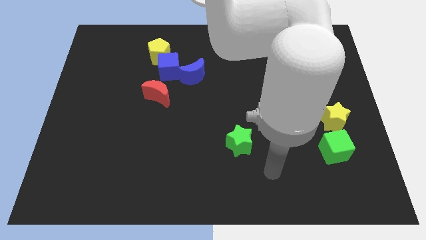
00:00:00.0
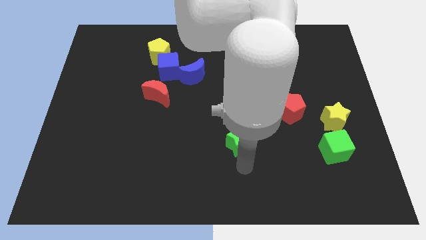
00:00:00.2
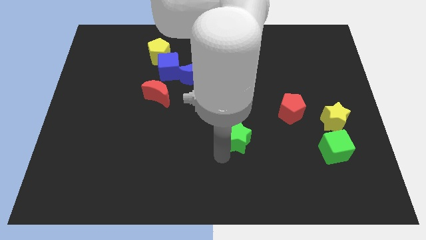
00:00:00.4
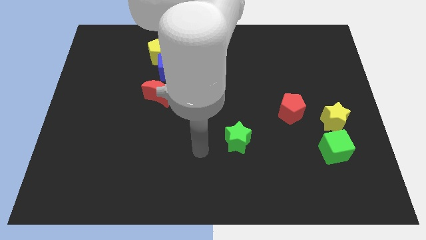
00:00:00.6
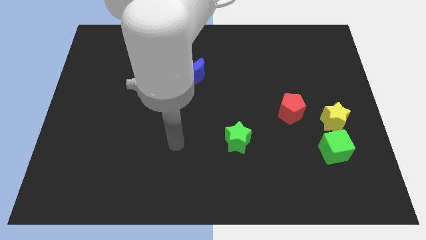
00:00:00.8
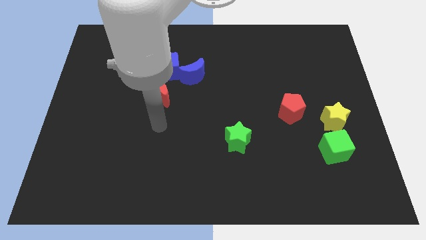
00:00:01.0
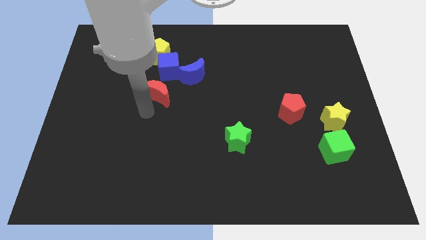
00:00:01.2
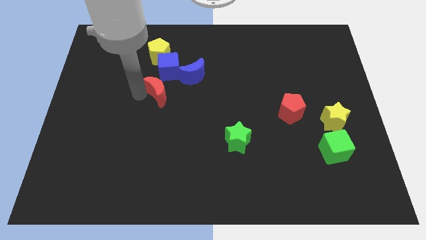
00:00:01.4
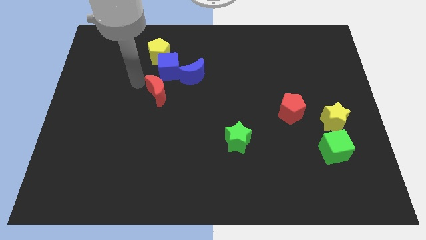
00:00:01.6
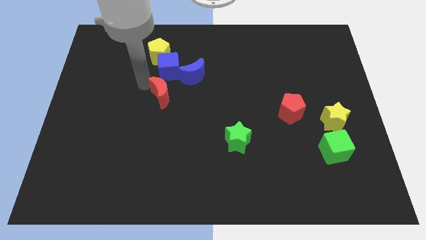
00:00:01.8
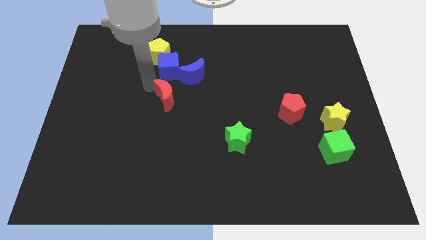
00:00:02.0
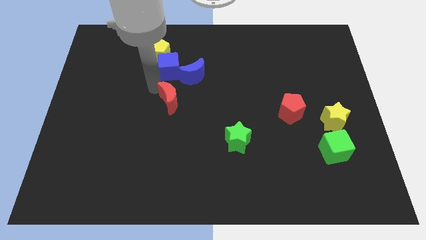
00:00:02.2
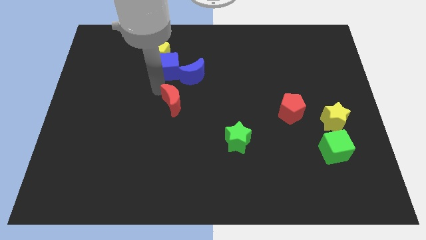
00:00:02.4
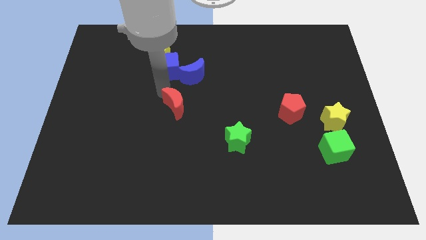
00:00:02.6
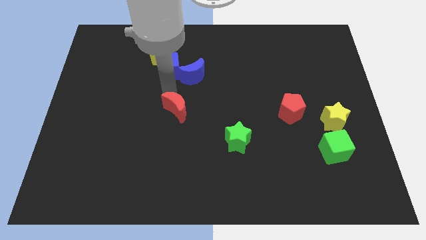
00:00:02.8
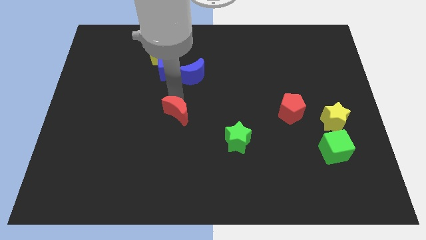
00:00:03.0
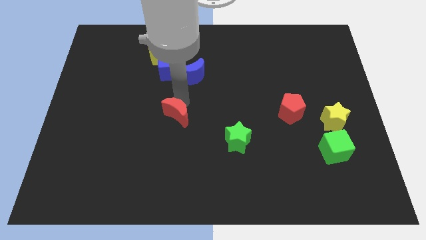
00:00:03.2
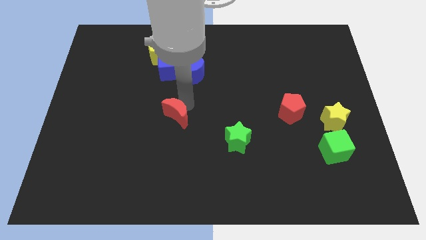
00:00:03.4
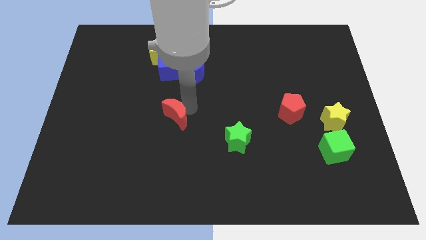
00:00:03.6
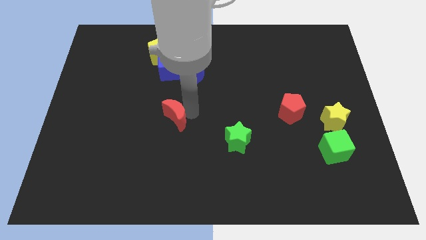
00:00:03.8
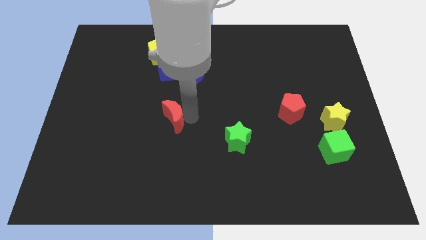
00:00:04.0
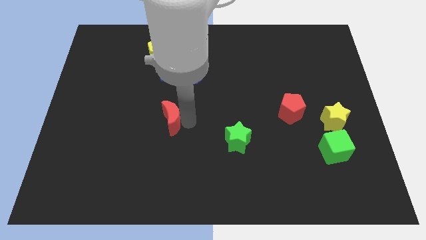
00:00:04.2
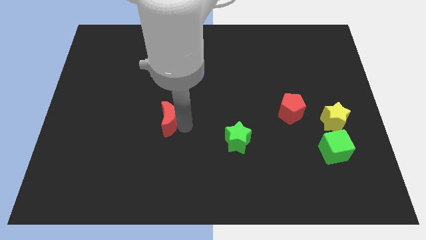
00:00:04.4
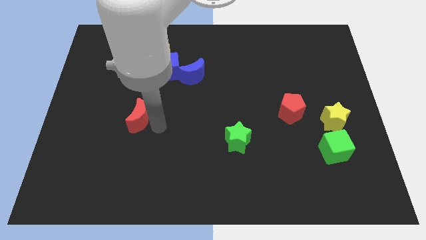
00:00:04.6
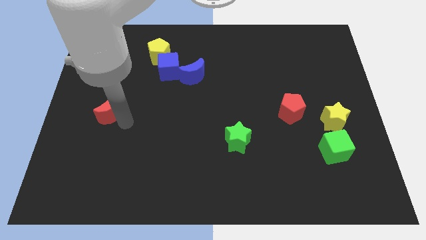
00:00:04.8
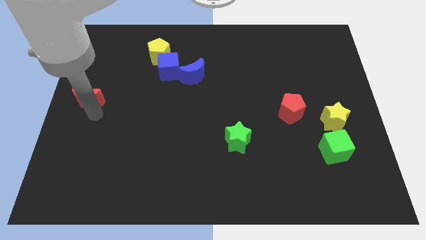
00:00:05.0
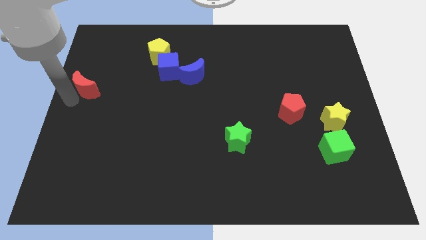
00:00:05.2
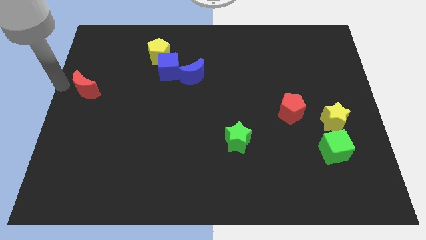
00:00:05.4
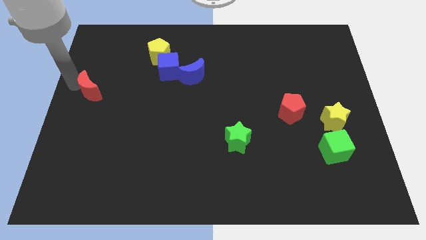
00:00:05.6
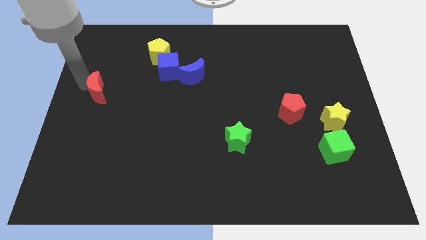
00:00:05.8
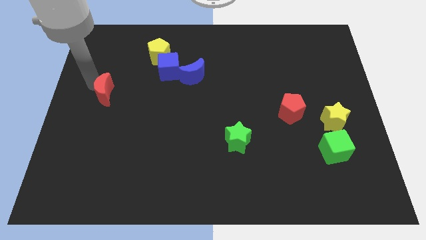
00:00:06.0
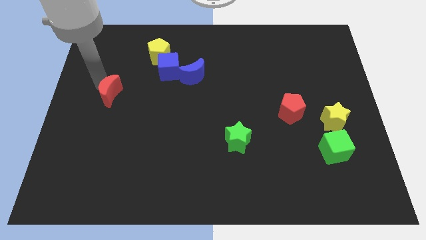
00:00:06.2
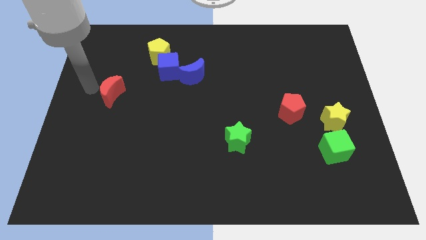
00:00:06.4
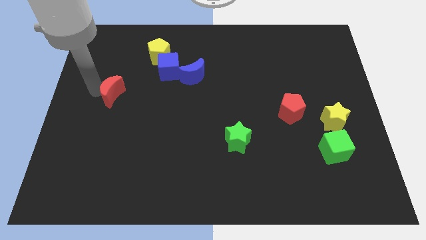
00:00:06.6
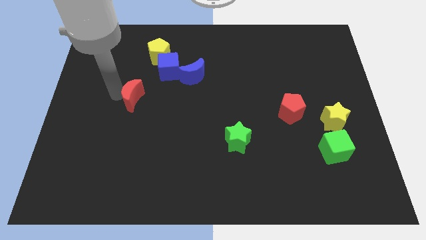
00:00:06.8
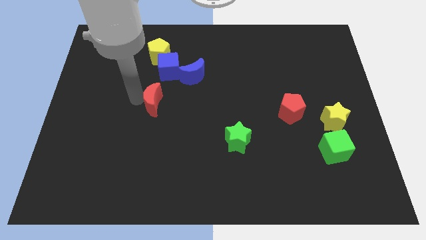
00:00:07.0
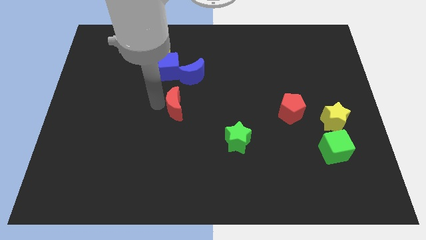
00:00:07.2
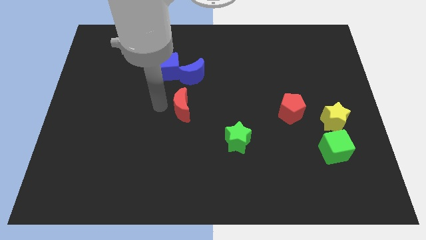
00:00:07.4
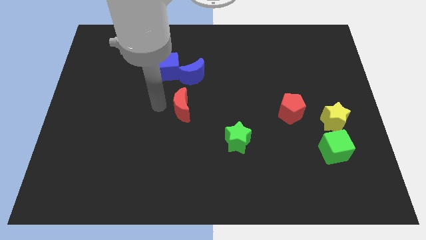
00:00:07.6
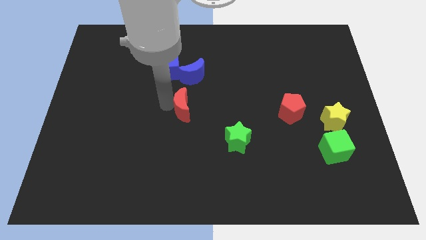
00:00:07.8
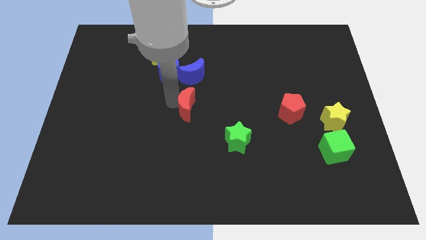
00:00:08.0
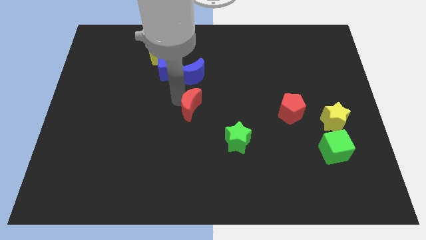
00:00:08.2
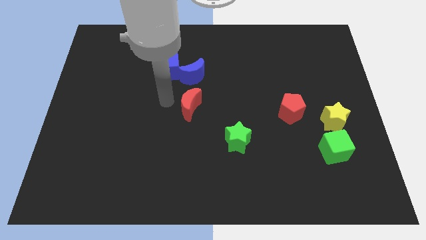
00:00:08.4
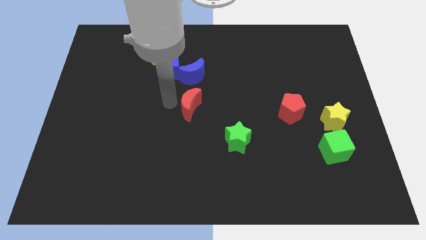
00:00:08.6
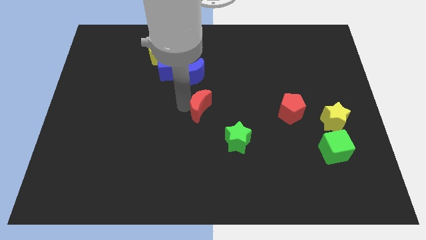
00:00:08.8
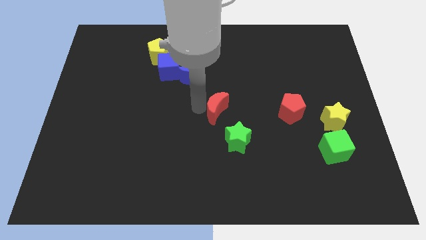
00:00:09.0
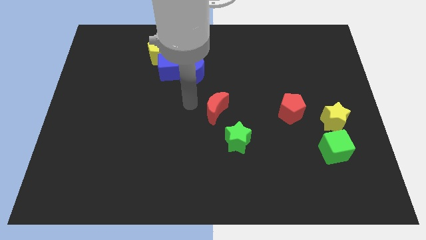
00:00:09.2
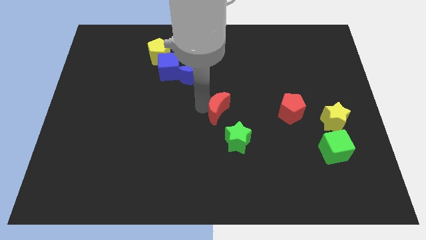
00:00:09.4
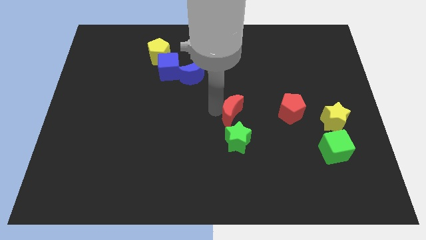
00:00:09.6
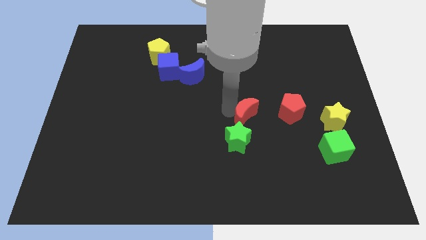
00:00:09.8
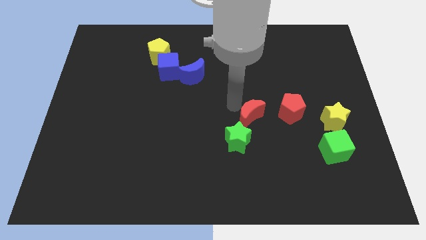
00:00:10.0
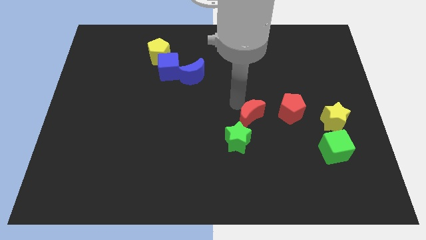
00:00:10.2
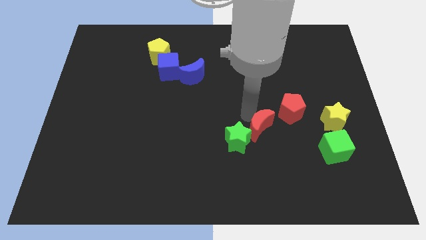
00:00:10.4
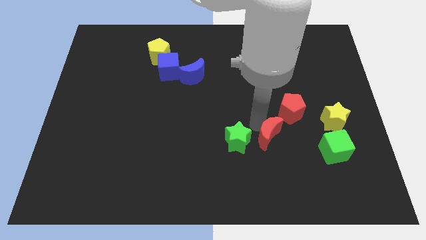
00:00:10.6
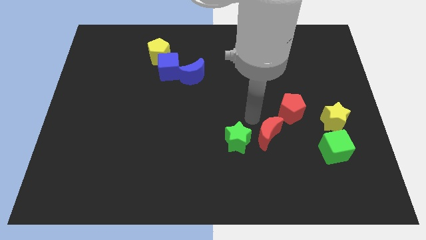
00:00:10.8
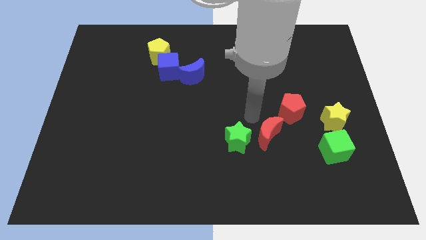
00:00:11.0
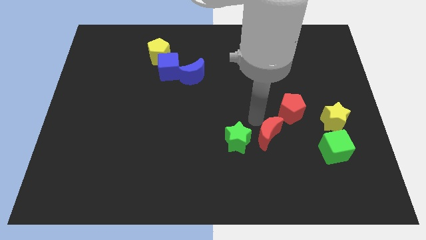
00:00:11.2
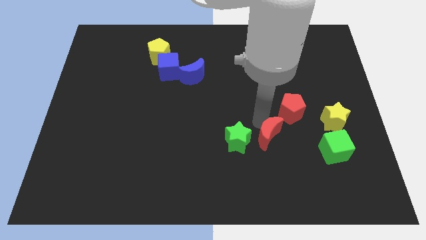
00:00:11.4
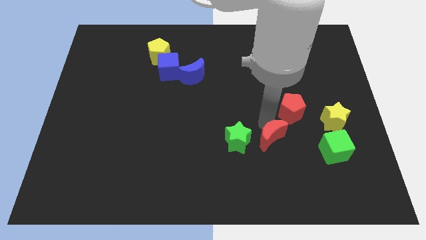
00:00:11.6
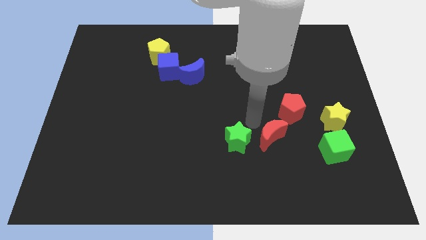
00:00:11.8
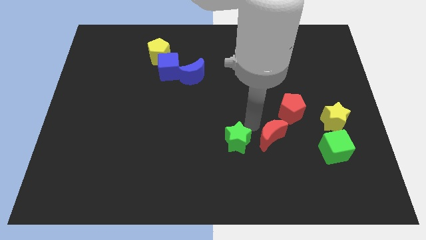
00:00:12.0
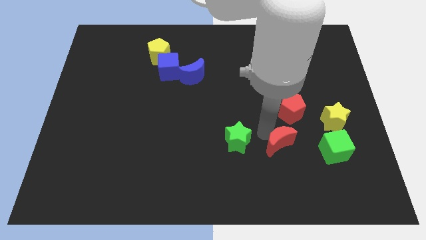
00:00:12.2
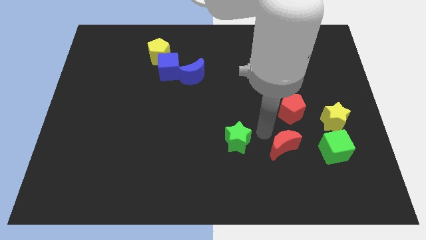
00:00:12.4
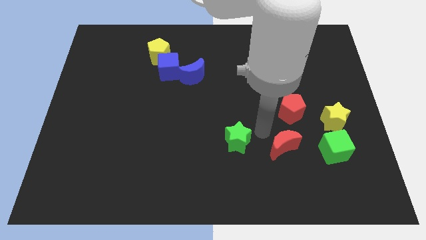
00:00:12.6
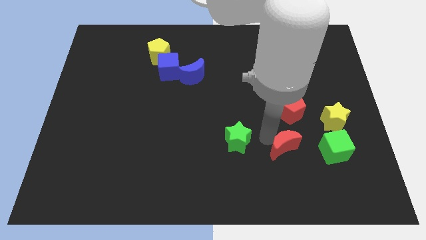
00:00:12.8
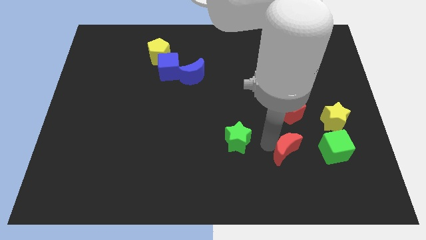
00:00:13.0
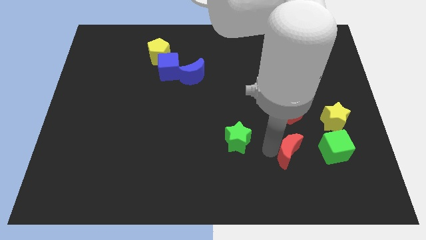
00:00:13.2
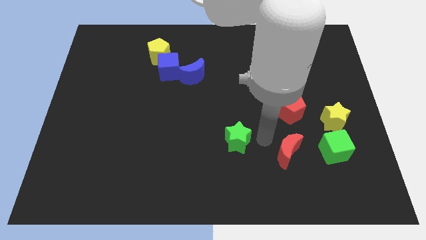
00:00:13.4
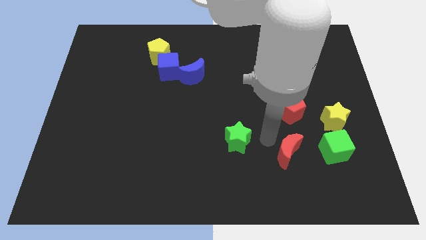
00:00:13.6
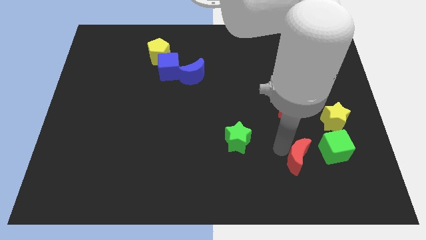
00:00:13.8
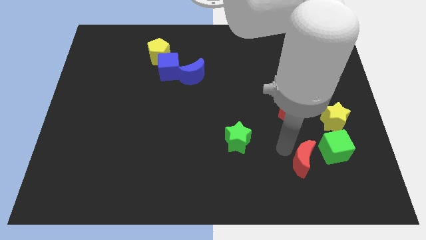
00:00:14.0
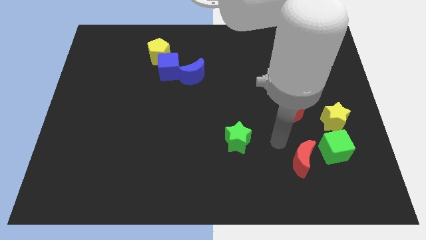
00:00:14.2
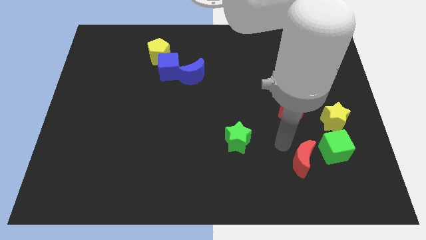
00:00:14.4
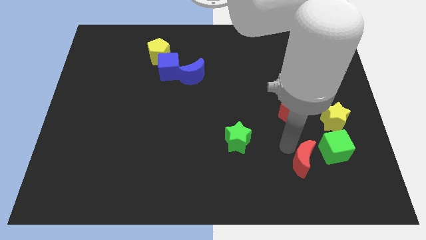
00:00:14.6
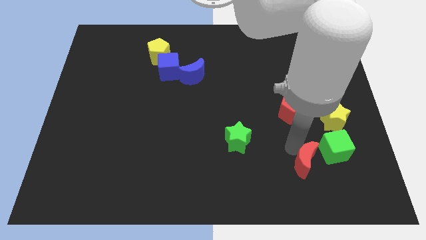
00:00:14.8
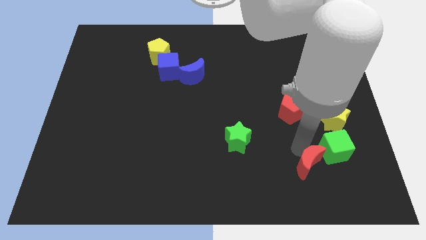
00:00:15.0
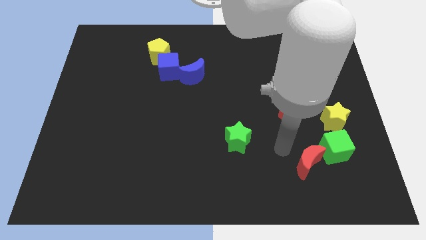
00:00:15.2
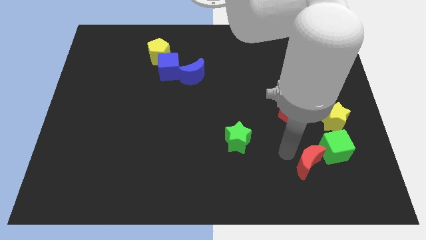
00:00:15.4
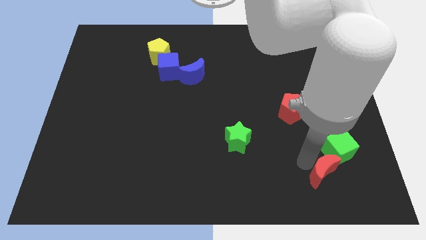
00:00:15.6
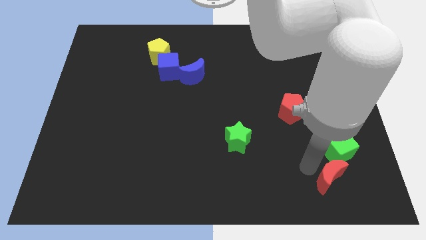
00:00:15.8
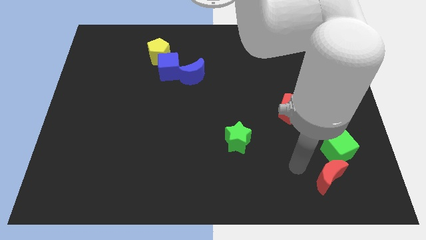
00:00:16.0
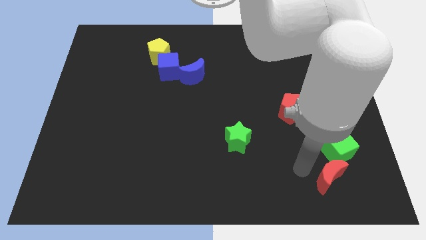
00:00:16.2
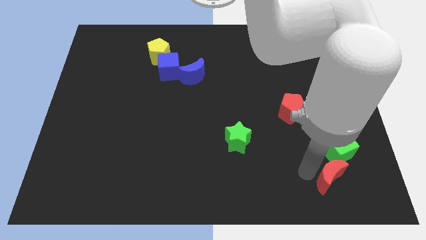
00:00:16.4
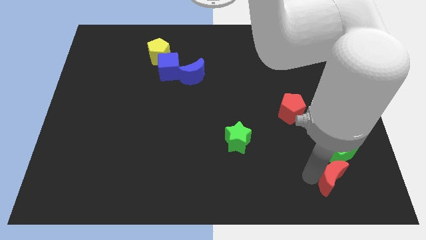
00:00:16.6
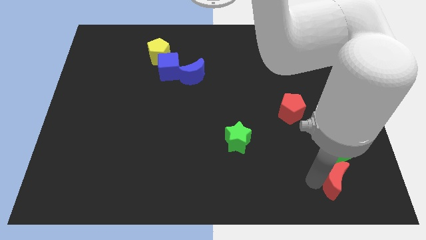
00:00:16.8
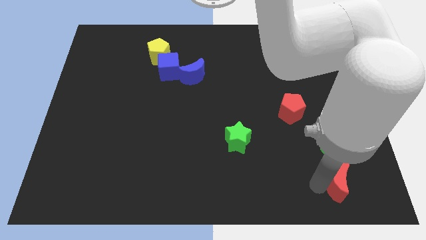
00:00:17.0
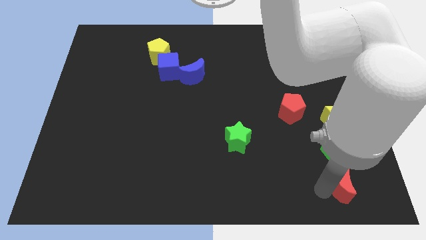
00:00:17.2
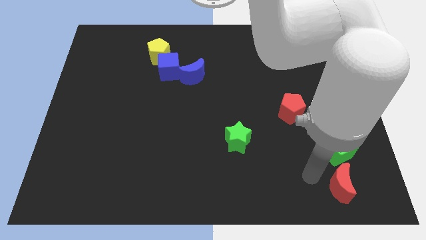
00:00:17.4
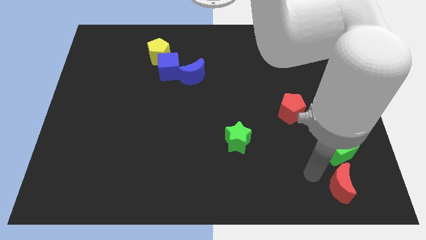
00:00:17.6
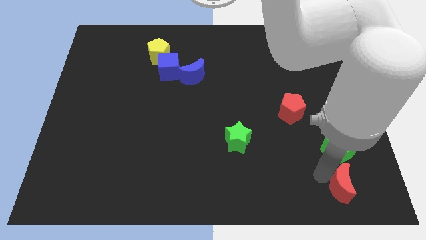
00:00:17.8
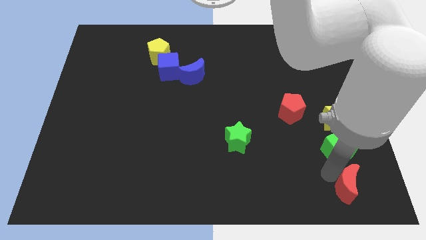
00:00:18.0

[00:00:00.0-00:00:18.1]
put the red moon to the bottom right corner
